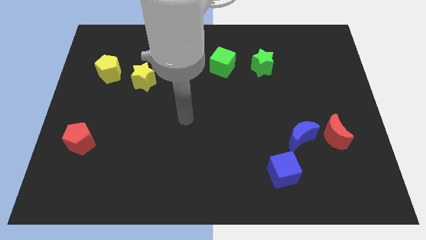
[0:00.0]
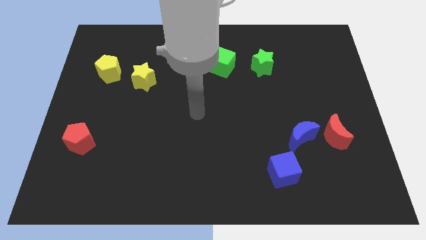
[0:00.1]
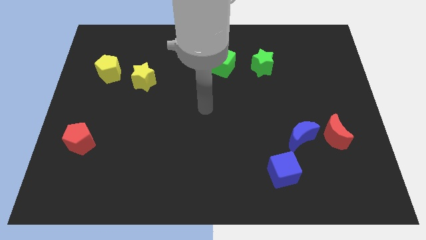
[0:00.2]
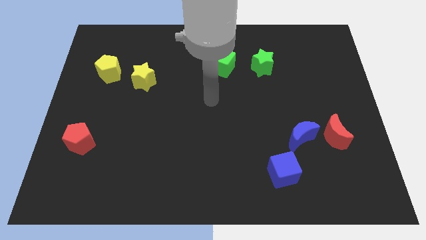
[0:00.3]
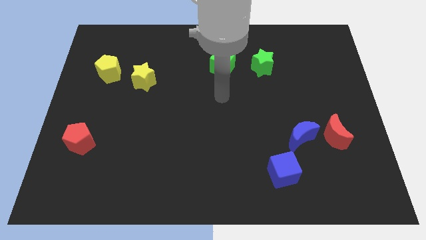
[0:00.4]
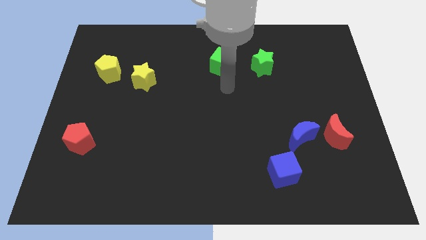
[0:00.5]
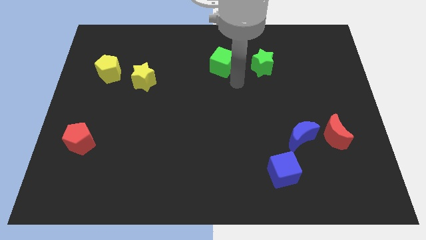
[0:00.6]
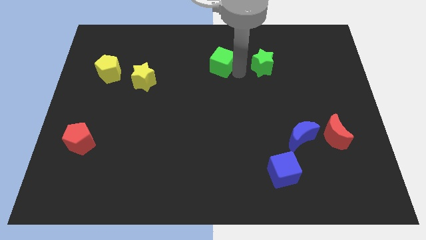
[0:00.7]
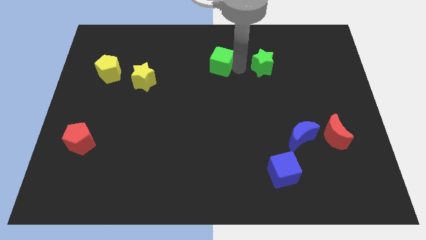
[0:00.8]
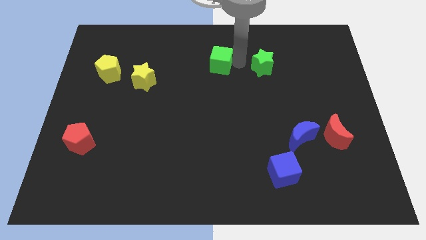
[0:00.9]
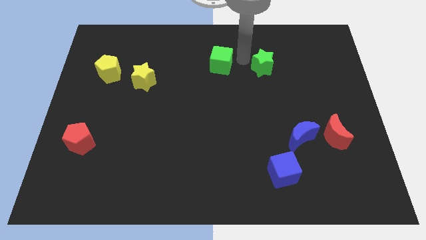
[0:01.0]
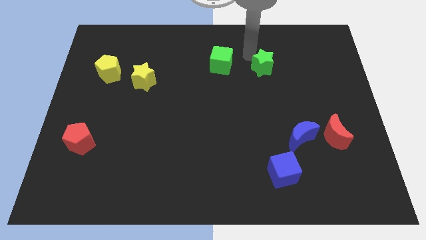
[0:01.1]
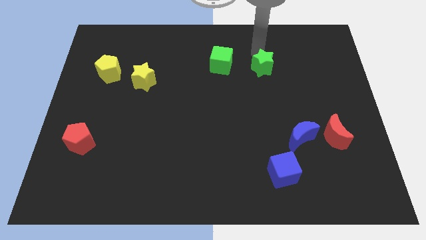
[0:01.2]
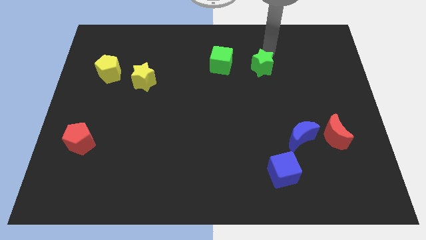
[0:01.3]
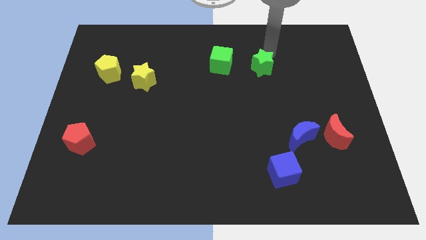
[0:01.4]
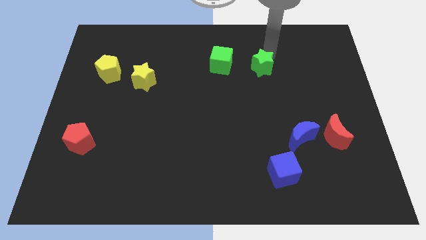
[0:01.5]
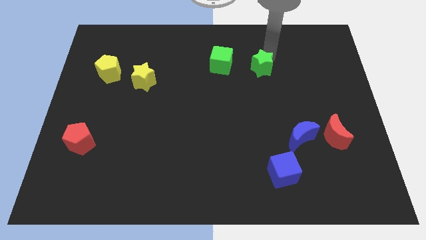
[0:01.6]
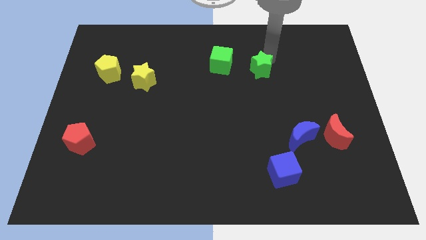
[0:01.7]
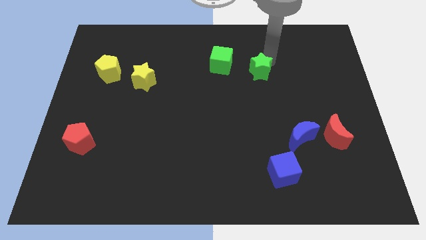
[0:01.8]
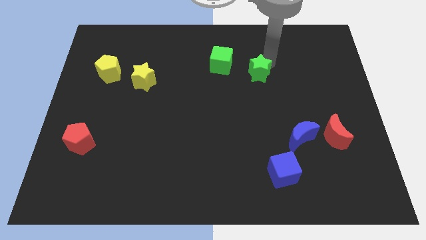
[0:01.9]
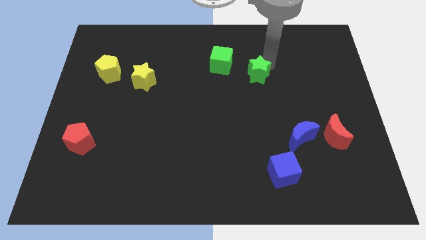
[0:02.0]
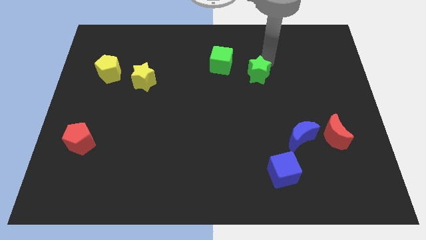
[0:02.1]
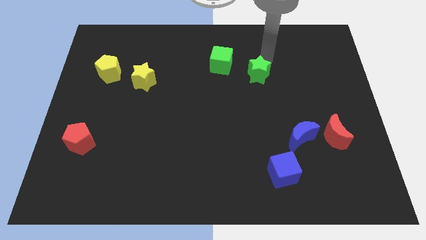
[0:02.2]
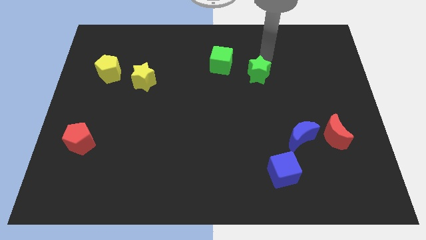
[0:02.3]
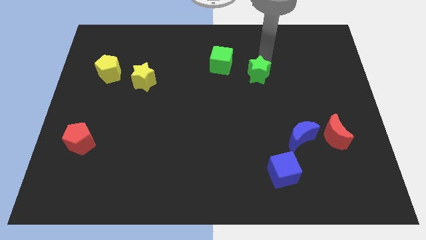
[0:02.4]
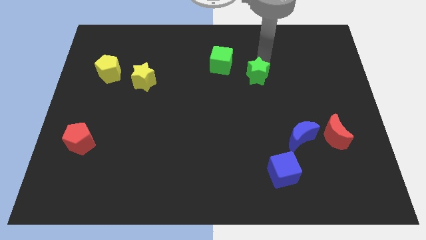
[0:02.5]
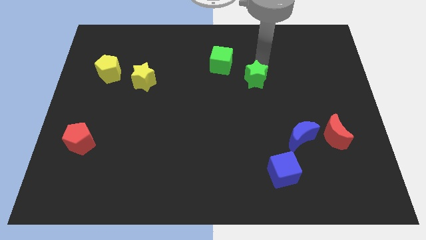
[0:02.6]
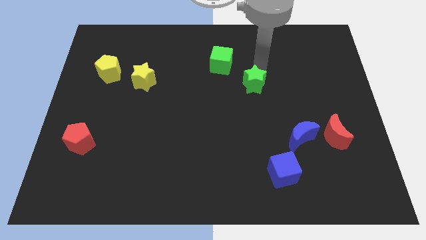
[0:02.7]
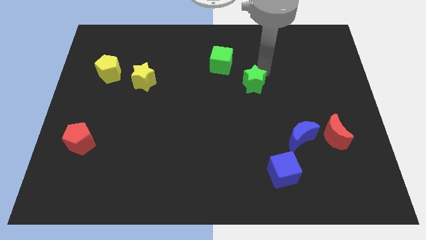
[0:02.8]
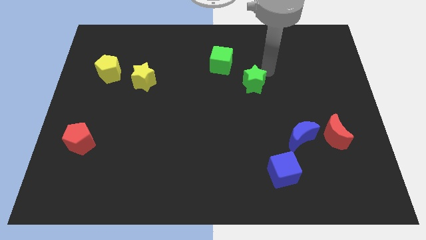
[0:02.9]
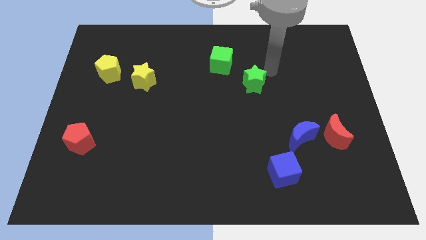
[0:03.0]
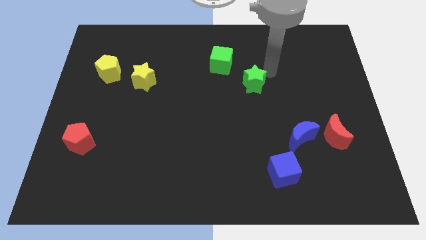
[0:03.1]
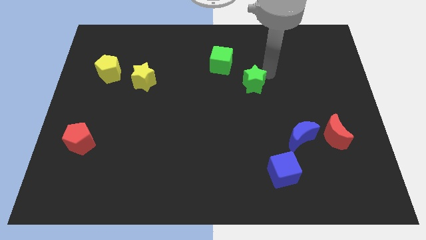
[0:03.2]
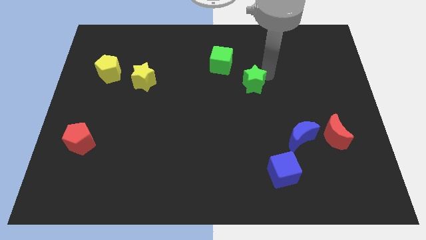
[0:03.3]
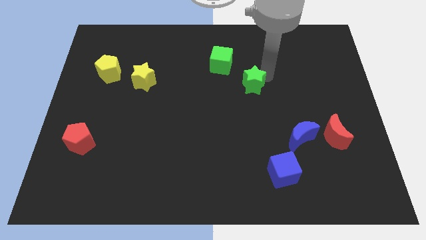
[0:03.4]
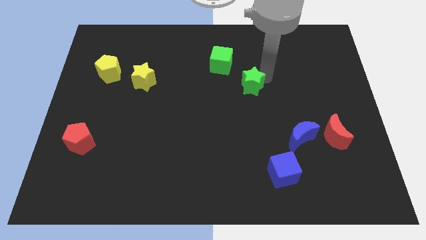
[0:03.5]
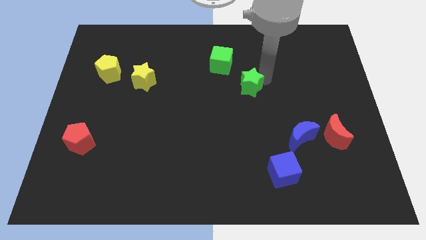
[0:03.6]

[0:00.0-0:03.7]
slide the green star down and then to the left a little bit

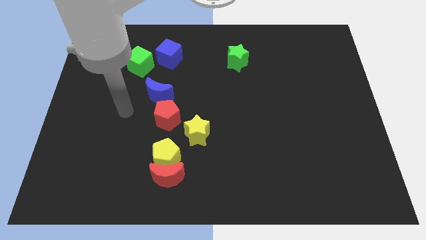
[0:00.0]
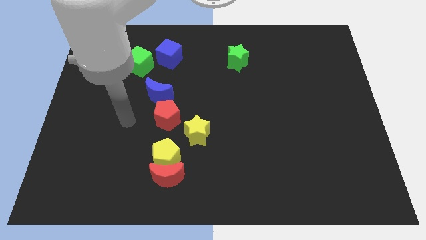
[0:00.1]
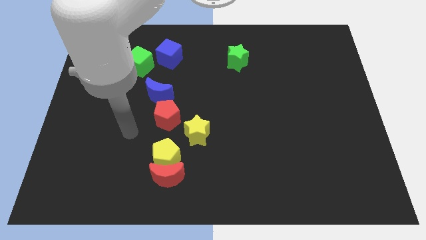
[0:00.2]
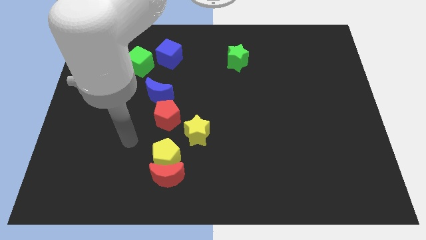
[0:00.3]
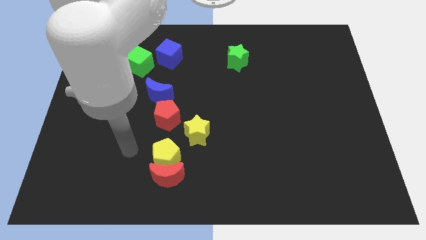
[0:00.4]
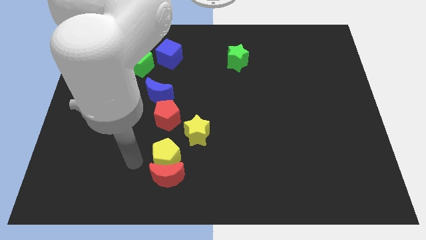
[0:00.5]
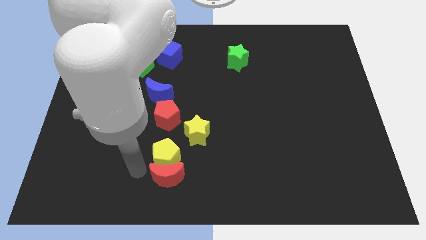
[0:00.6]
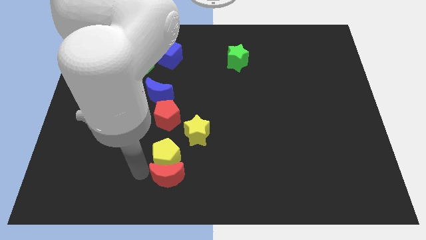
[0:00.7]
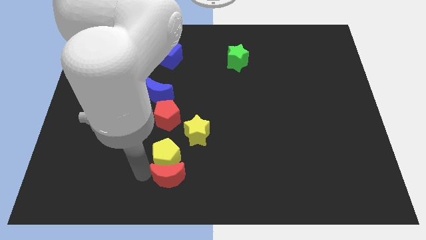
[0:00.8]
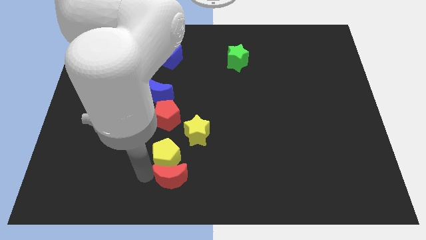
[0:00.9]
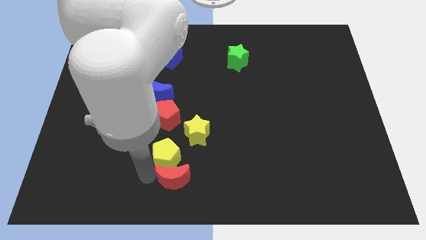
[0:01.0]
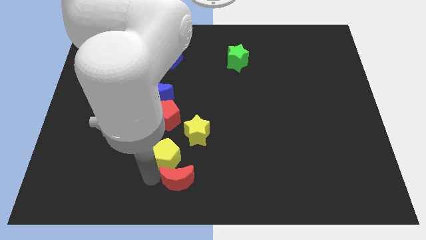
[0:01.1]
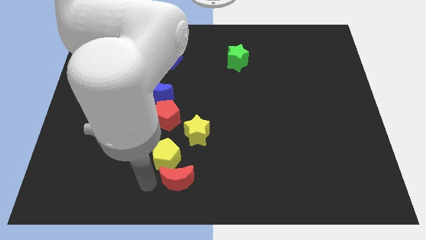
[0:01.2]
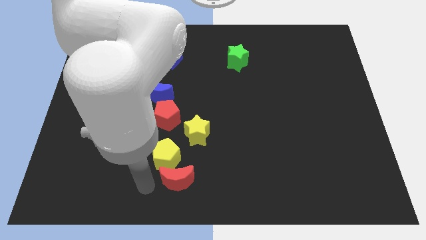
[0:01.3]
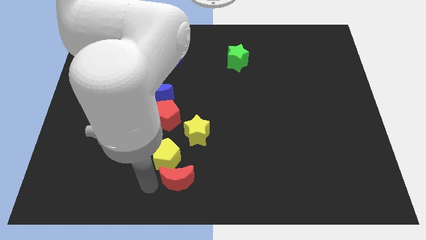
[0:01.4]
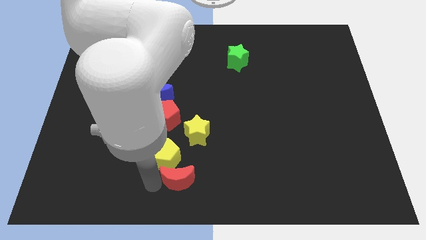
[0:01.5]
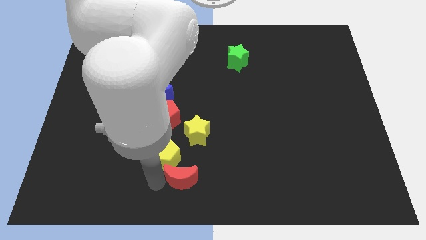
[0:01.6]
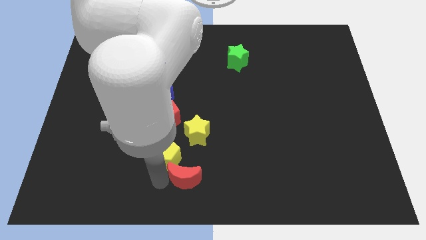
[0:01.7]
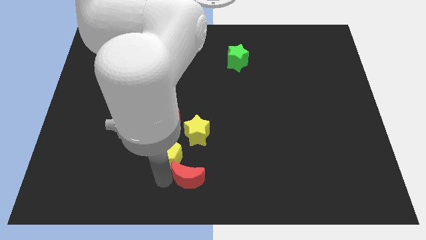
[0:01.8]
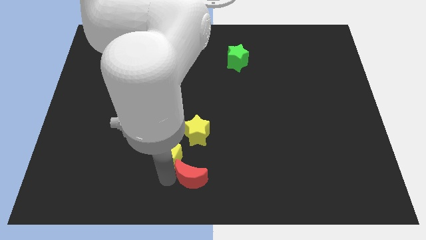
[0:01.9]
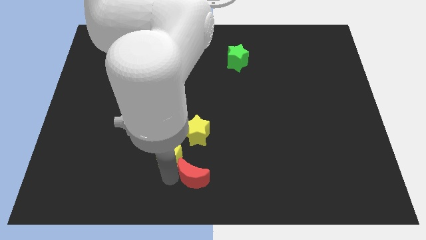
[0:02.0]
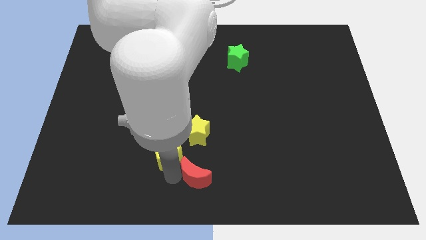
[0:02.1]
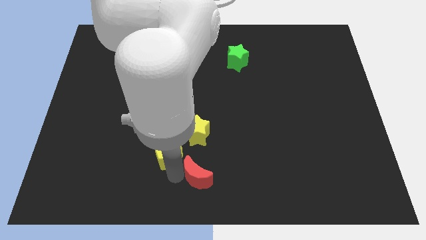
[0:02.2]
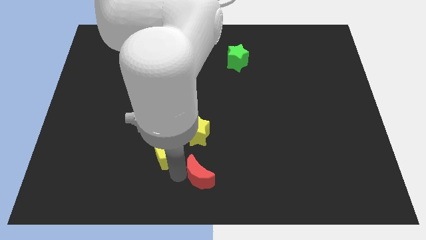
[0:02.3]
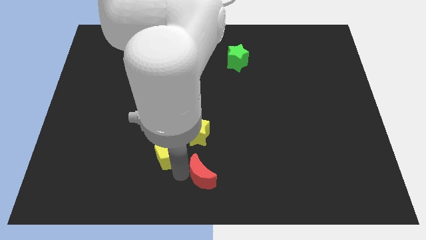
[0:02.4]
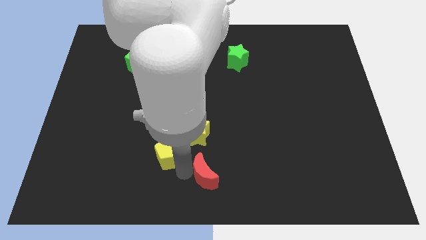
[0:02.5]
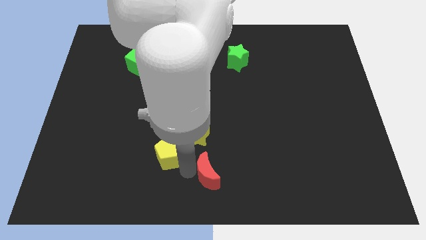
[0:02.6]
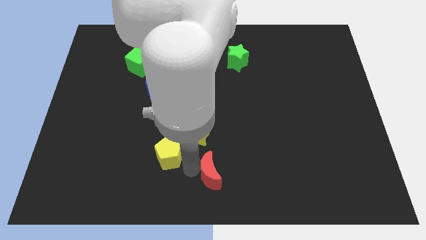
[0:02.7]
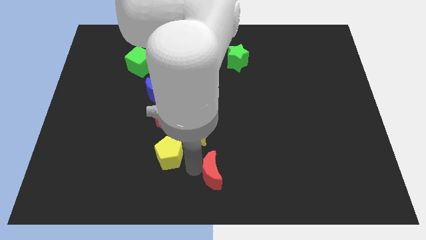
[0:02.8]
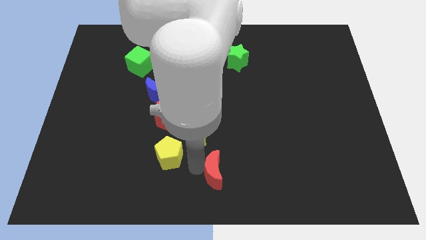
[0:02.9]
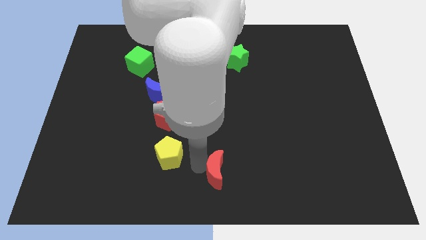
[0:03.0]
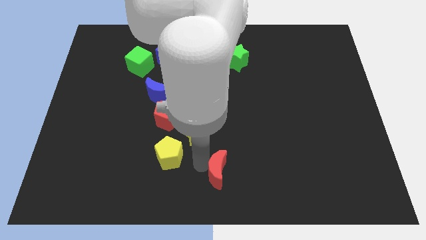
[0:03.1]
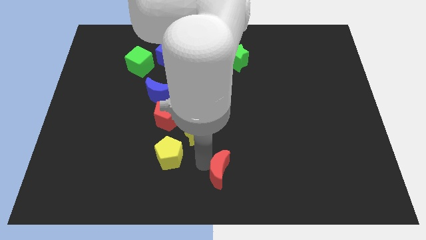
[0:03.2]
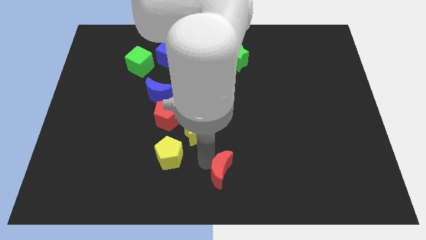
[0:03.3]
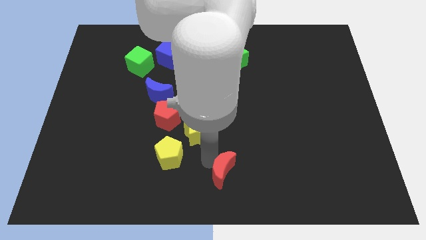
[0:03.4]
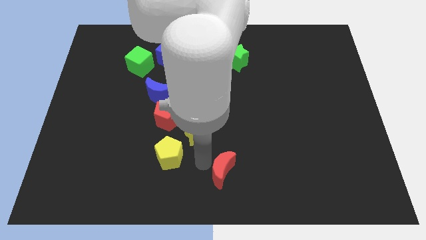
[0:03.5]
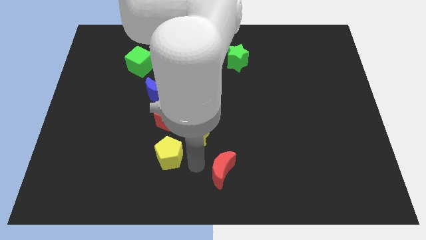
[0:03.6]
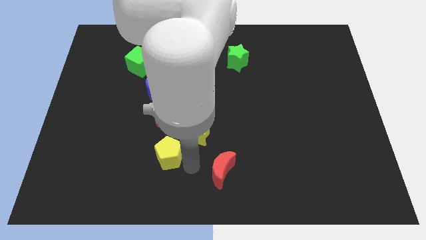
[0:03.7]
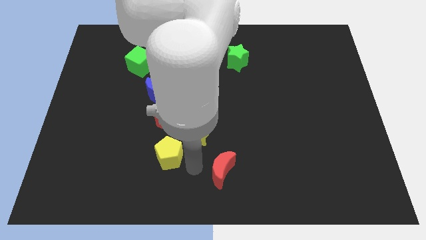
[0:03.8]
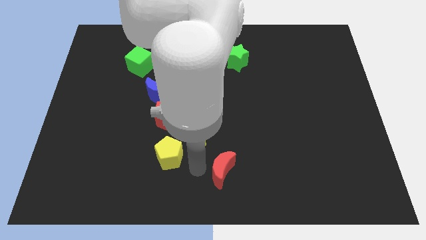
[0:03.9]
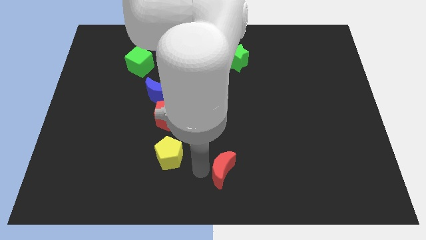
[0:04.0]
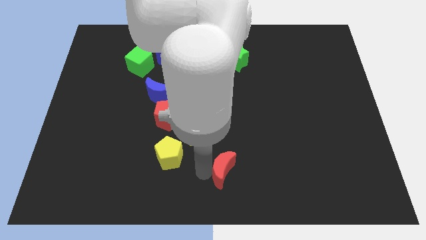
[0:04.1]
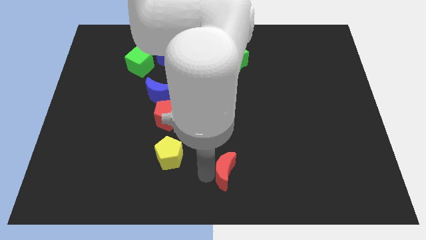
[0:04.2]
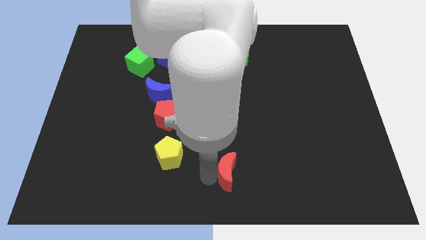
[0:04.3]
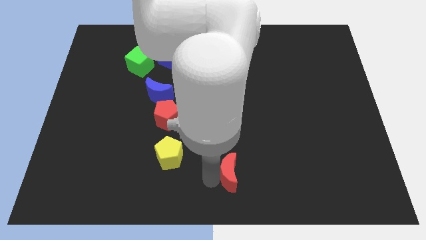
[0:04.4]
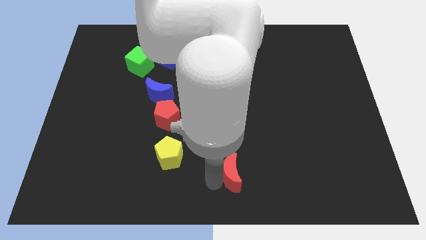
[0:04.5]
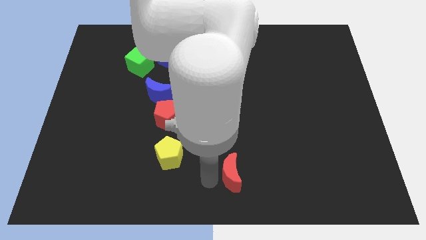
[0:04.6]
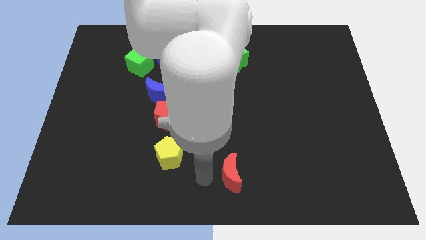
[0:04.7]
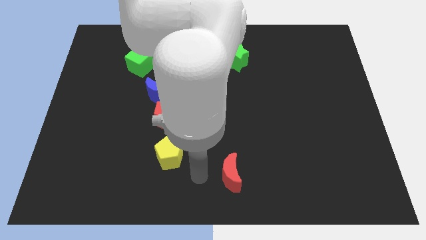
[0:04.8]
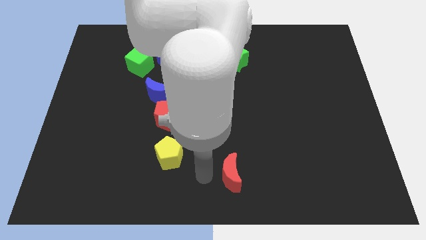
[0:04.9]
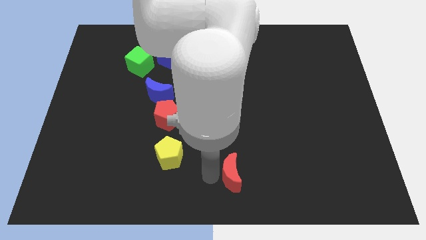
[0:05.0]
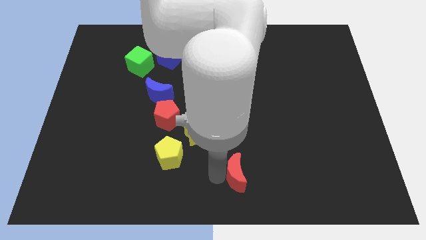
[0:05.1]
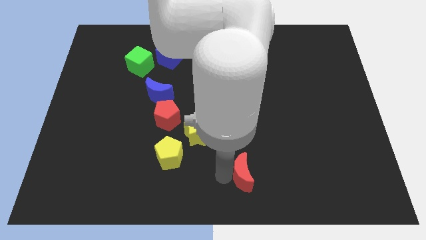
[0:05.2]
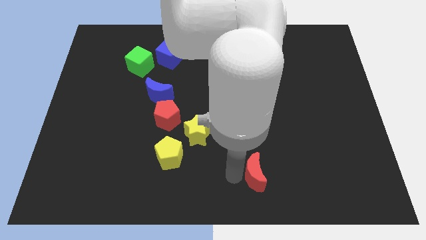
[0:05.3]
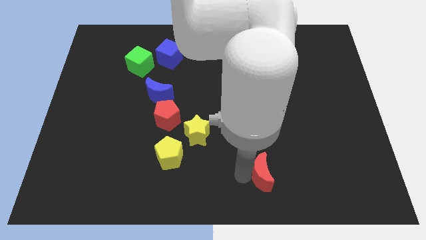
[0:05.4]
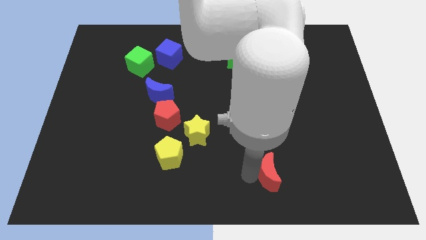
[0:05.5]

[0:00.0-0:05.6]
slide the red moon to the right
